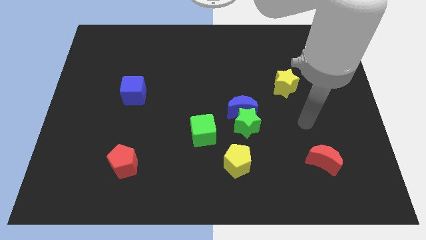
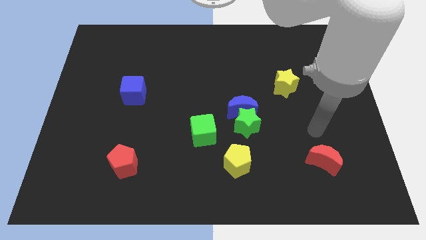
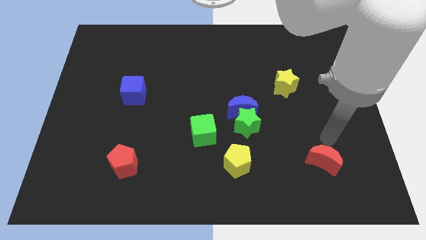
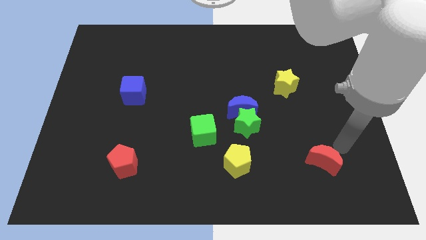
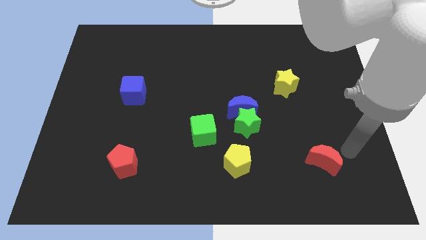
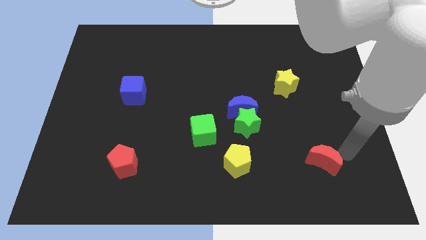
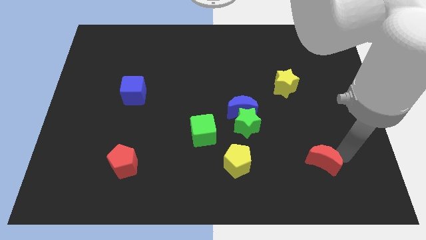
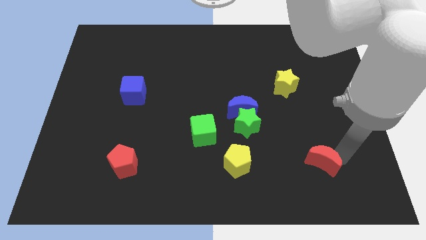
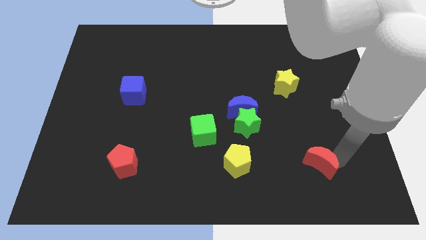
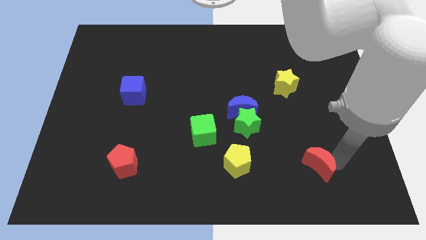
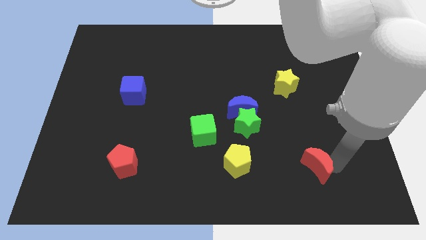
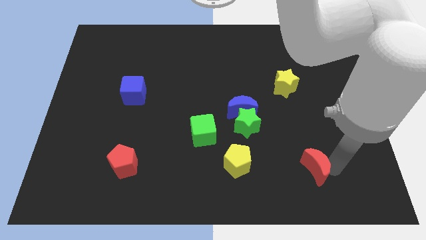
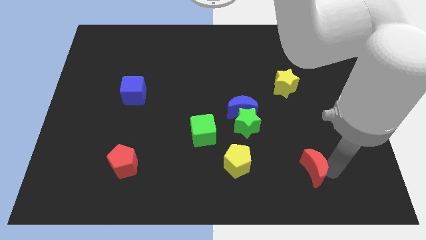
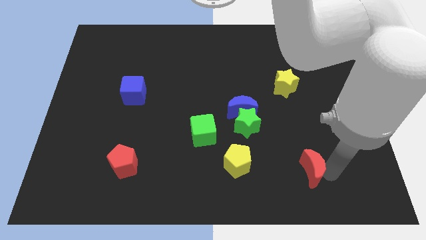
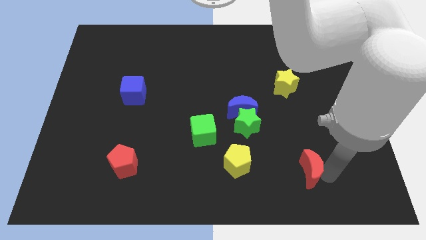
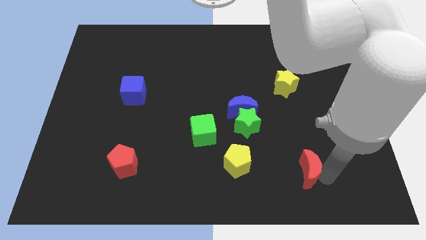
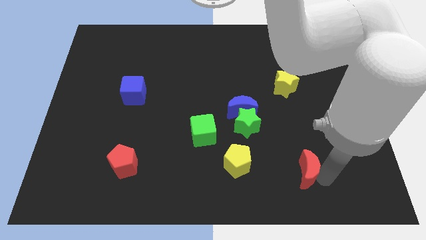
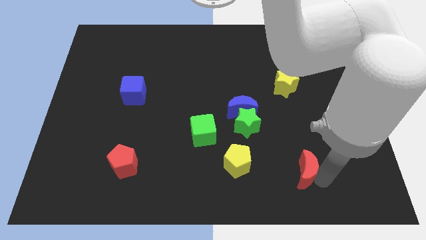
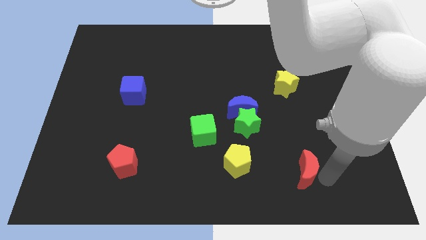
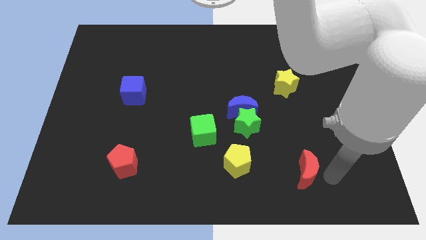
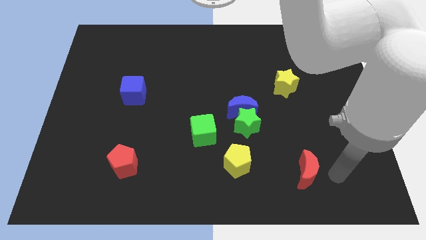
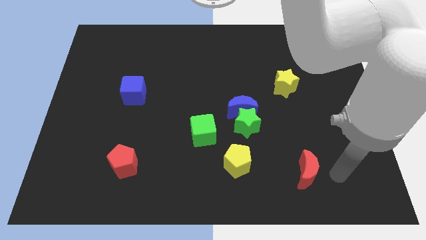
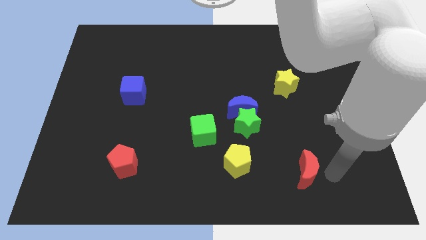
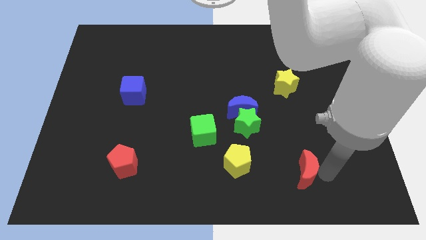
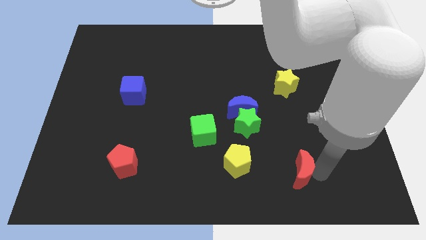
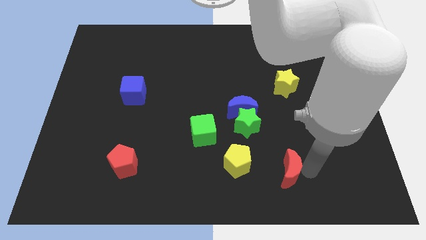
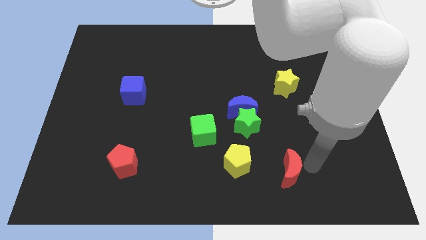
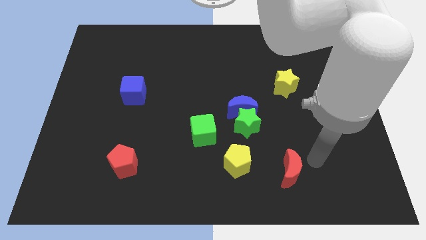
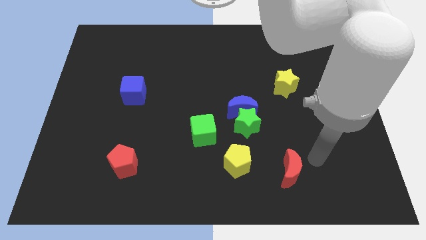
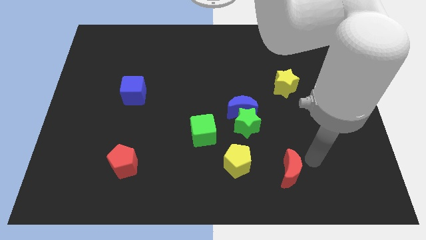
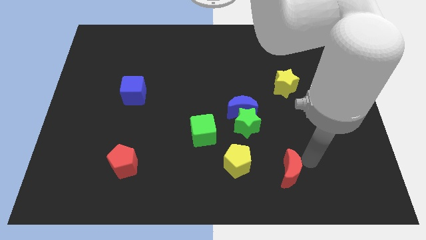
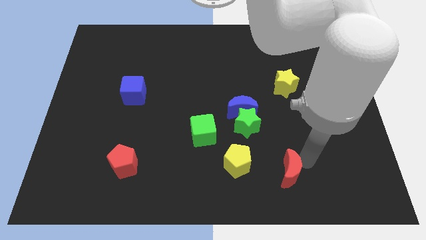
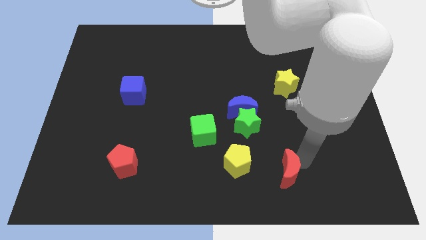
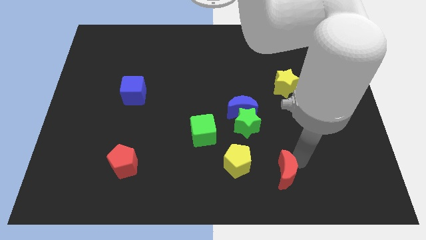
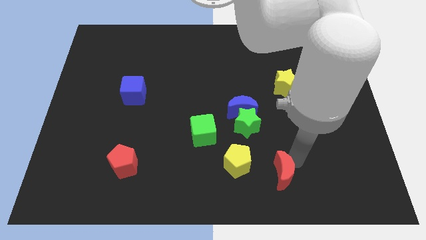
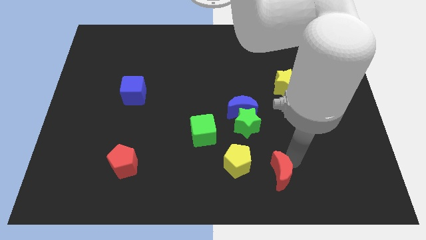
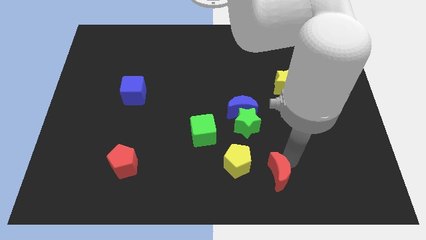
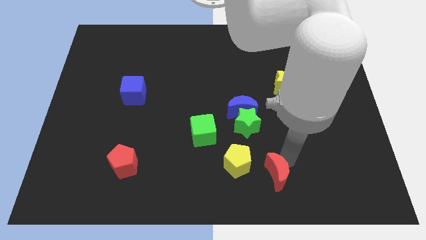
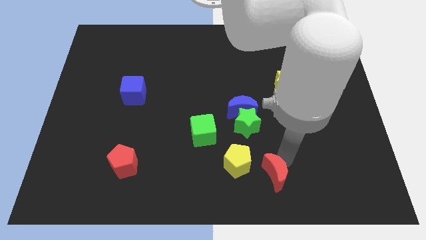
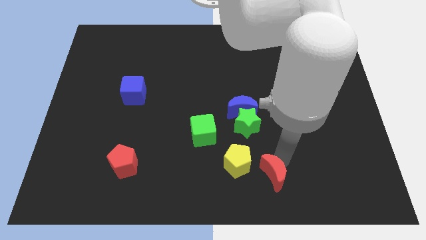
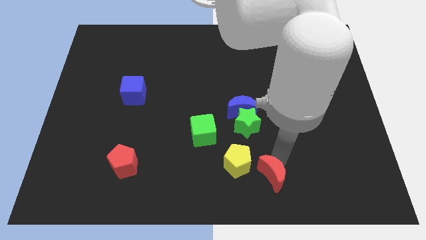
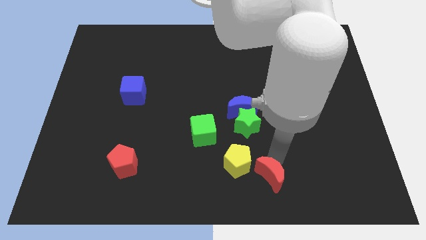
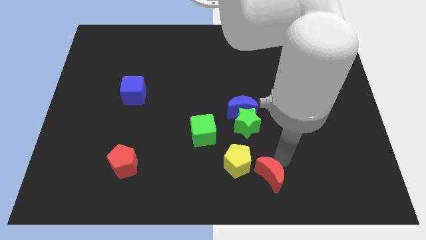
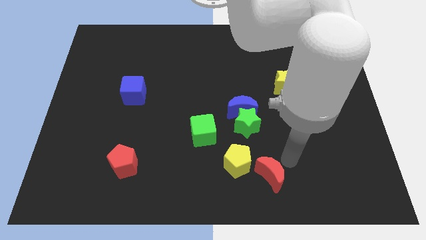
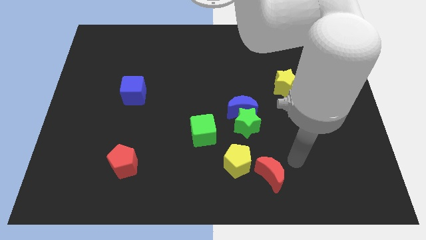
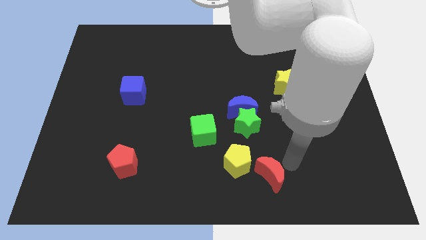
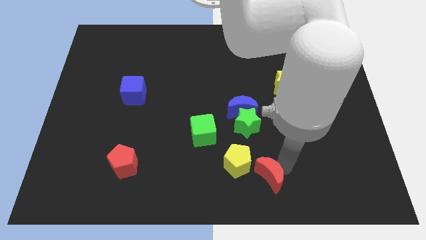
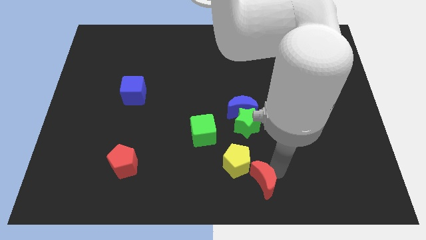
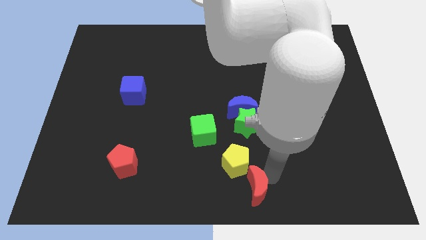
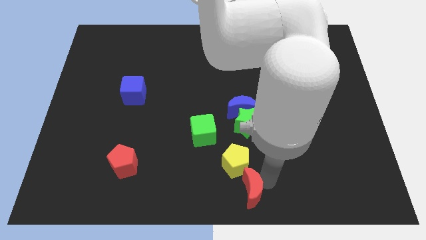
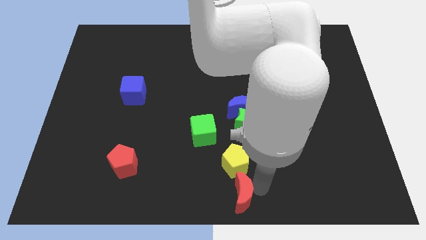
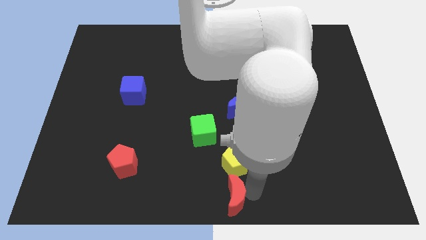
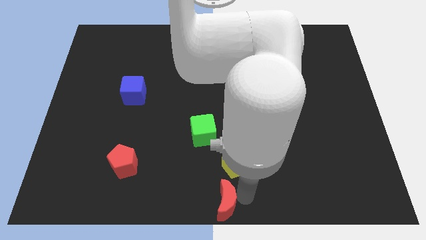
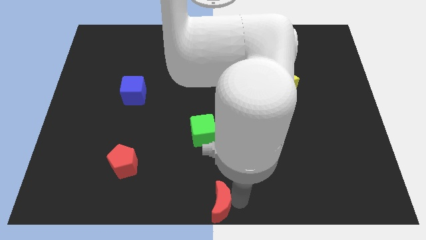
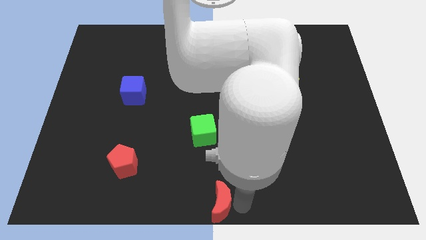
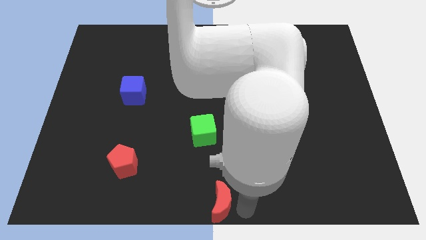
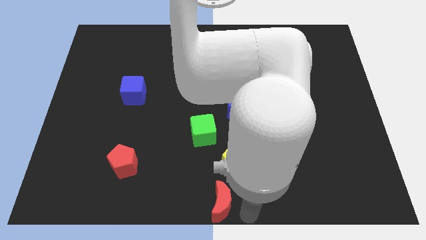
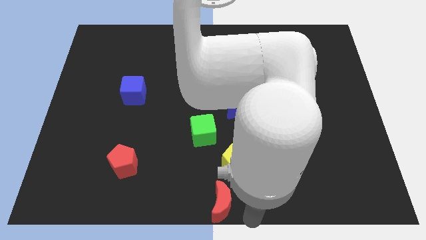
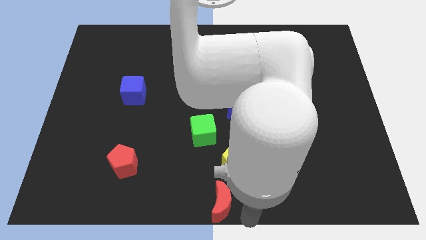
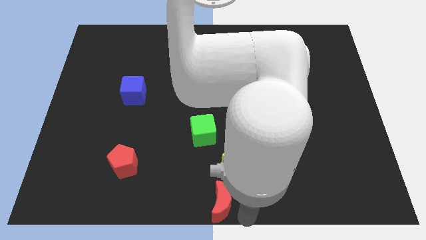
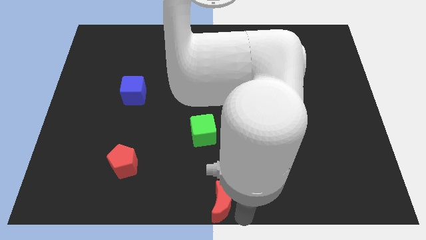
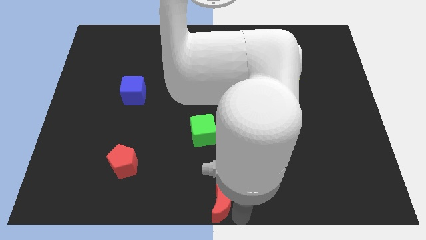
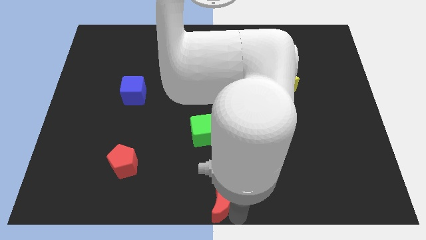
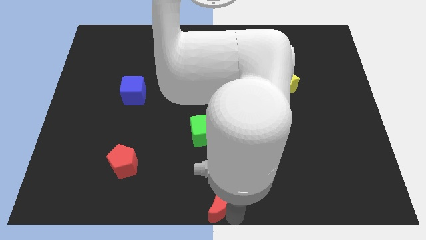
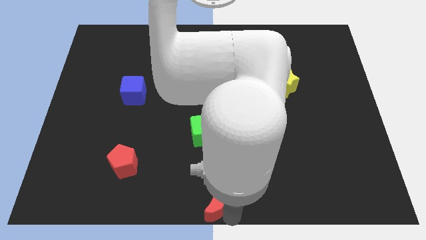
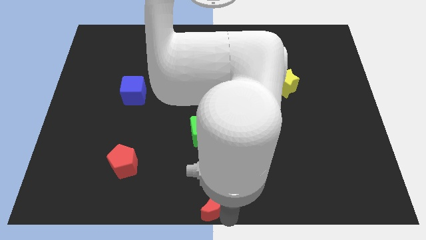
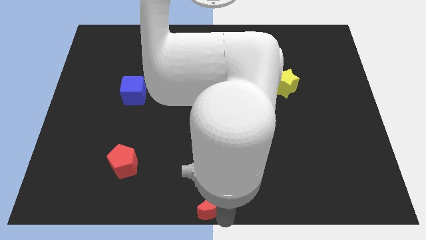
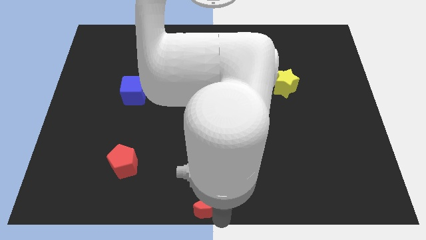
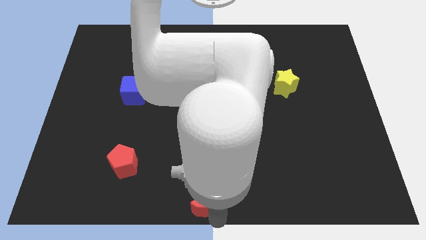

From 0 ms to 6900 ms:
push the red moon left

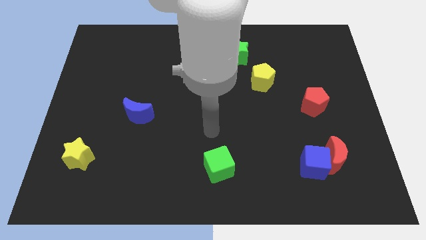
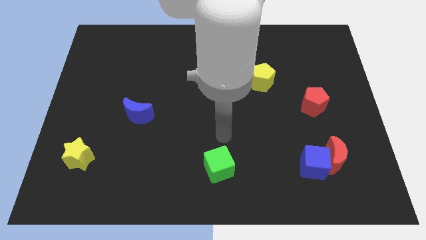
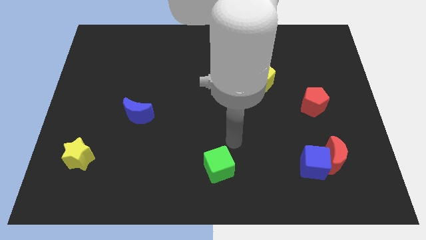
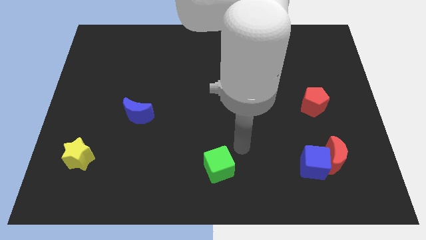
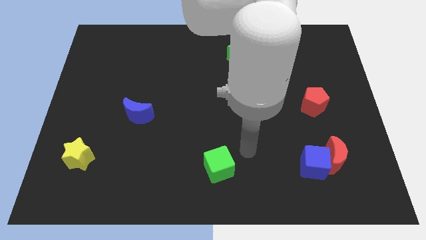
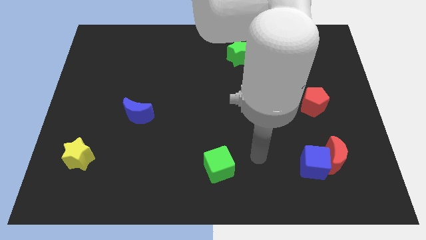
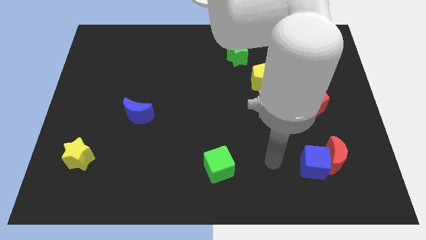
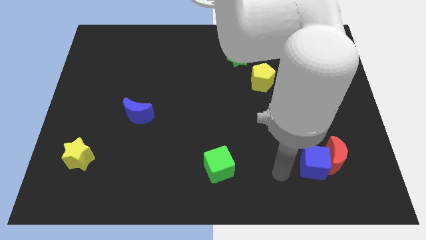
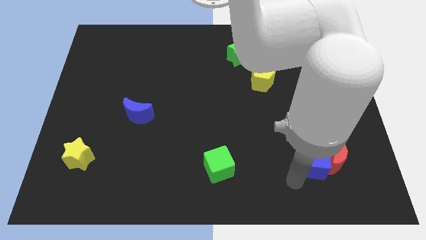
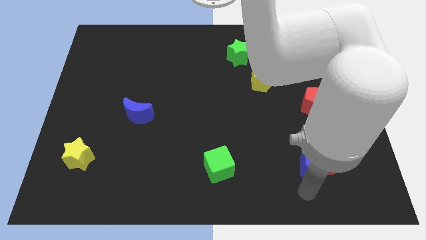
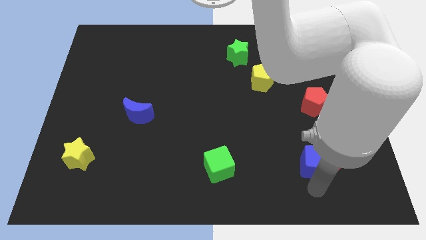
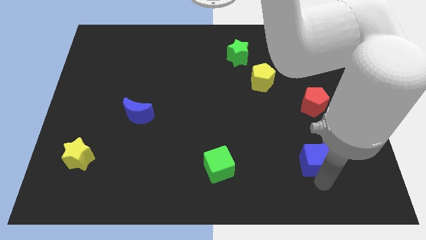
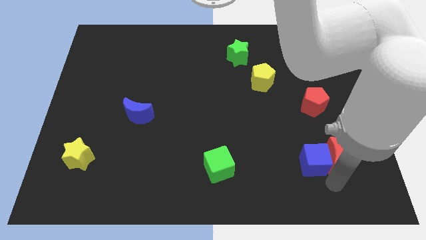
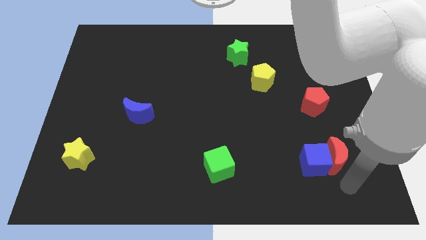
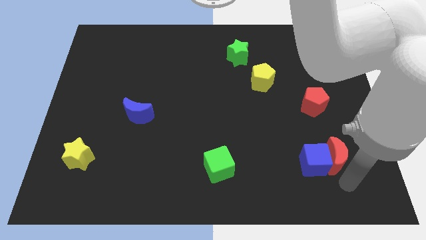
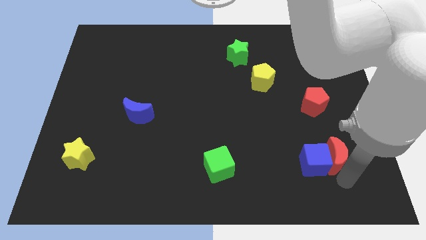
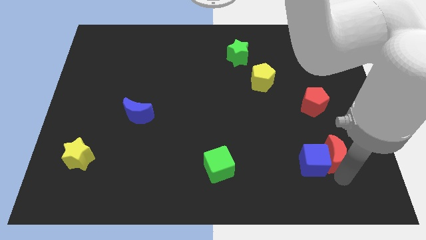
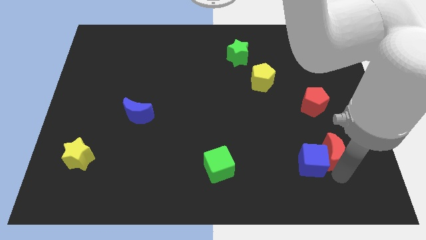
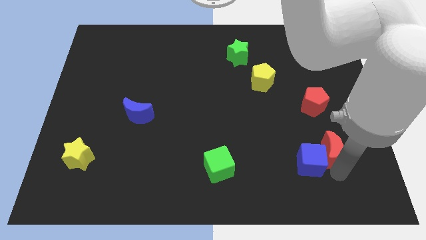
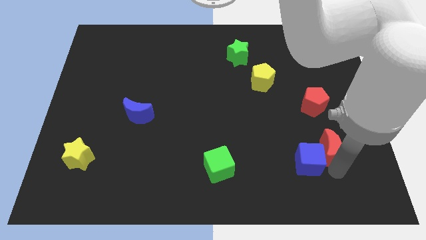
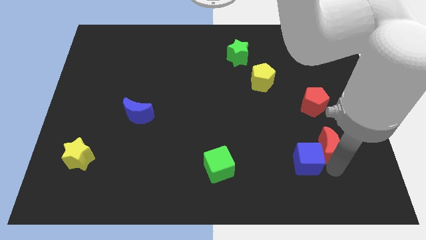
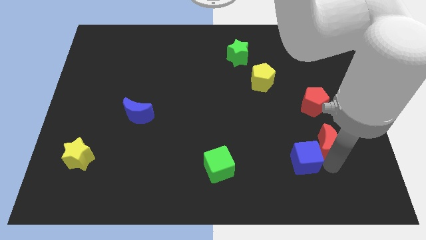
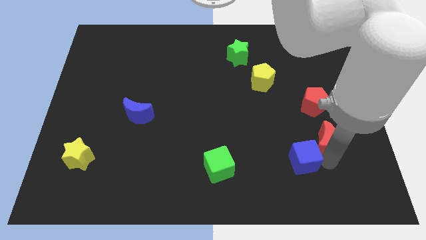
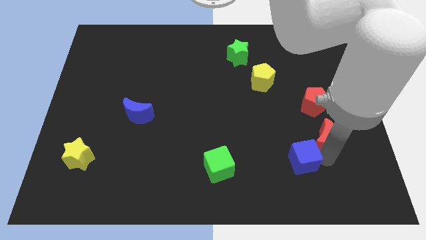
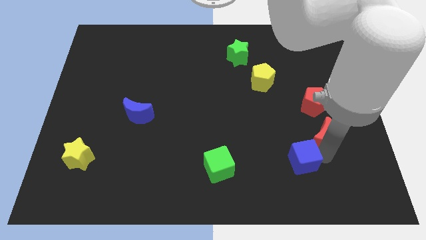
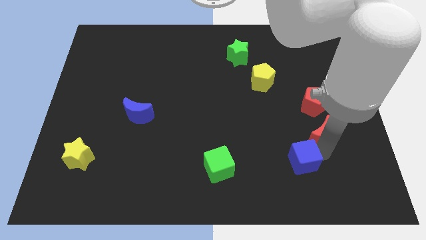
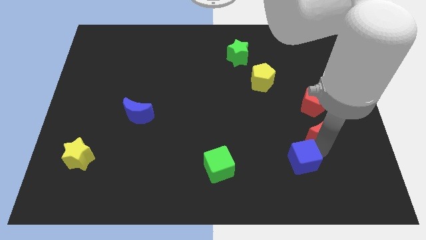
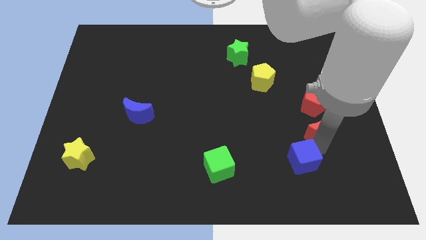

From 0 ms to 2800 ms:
slide the red moon a little up
